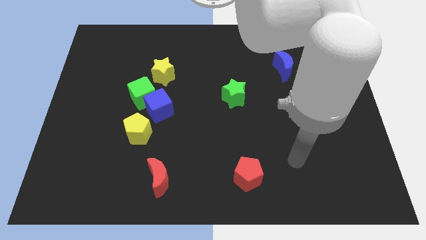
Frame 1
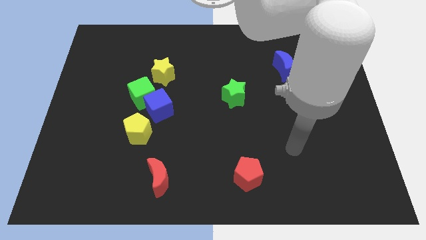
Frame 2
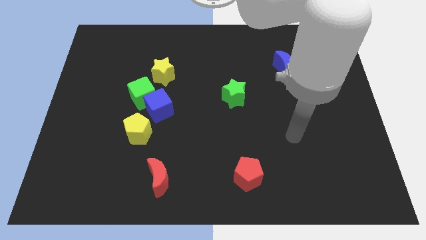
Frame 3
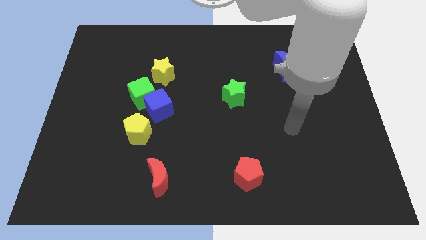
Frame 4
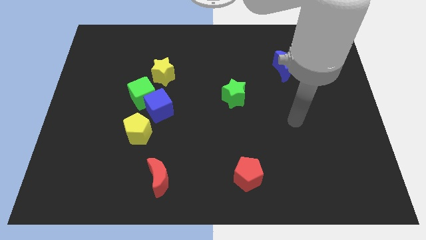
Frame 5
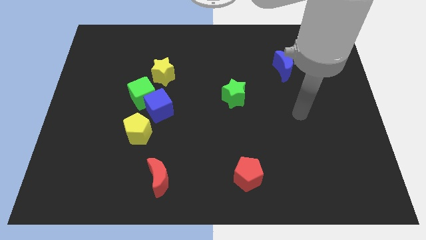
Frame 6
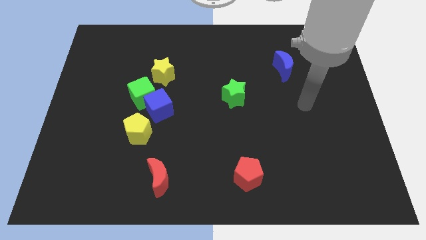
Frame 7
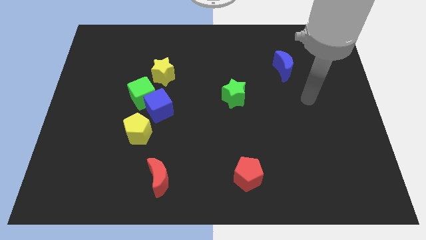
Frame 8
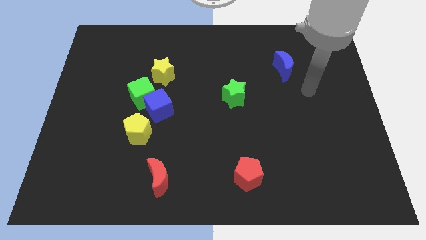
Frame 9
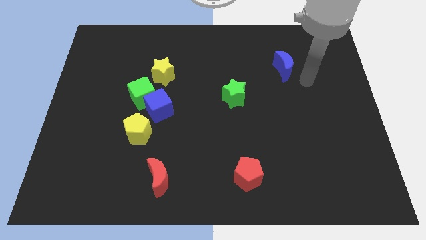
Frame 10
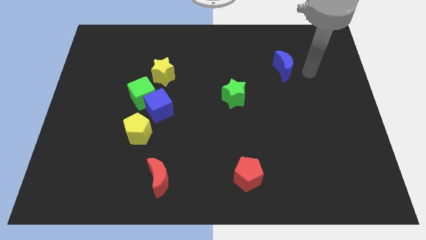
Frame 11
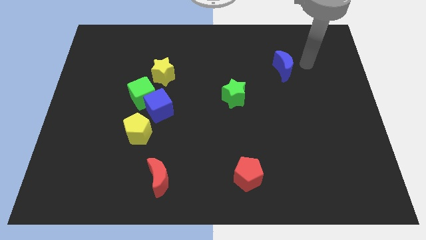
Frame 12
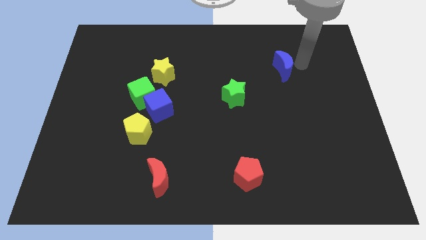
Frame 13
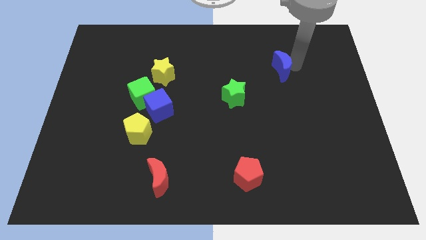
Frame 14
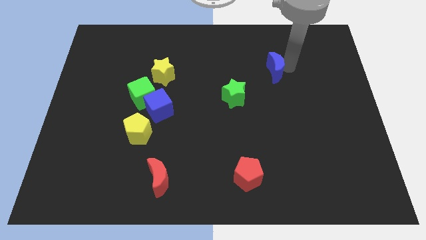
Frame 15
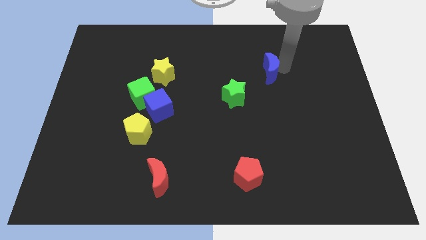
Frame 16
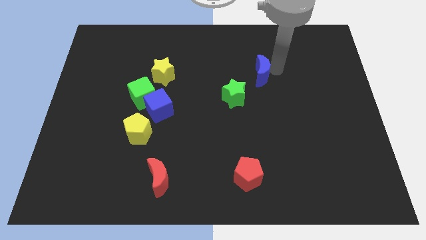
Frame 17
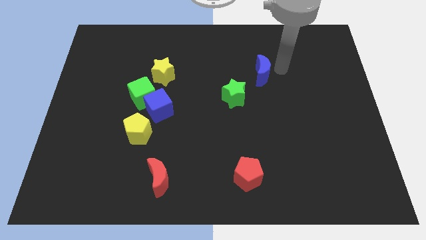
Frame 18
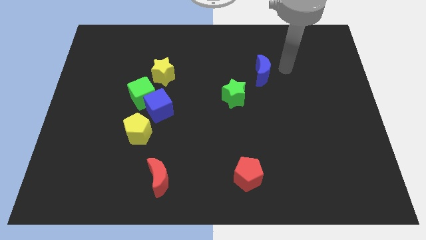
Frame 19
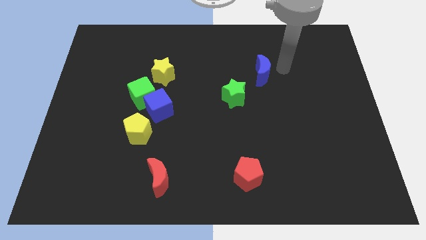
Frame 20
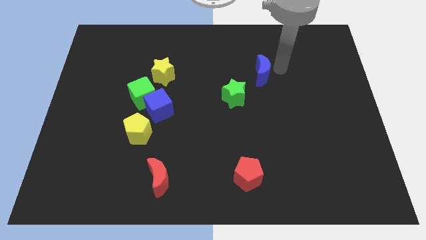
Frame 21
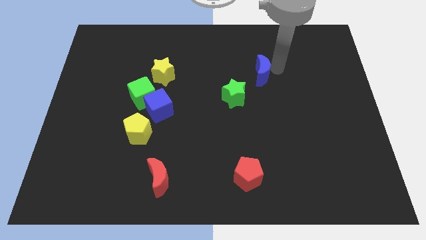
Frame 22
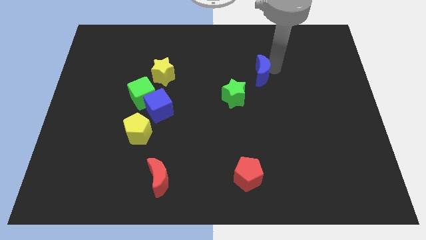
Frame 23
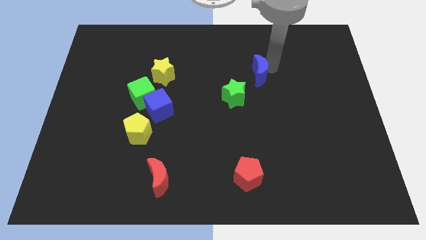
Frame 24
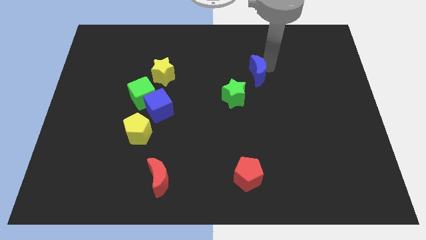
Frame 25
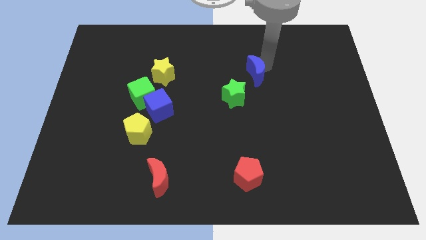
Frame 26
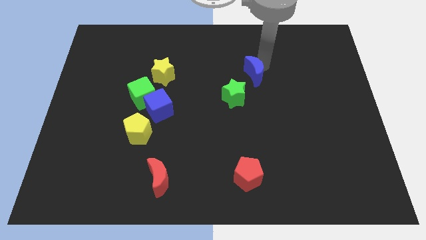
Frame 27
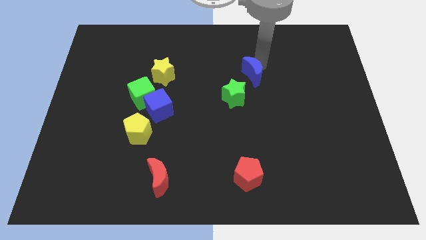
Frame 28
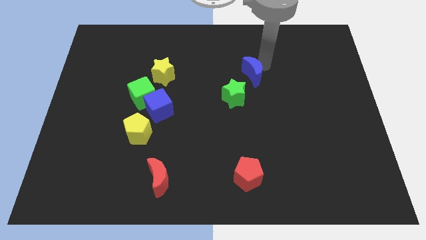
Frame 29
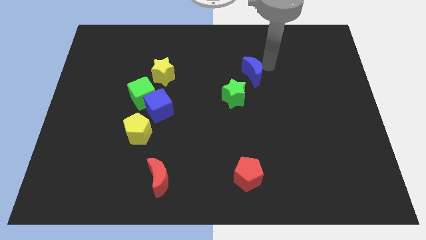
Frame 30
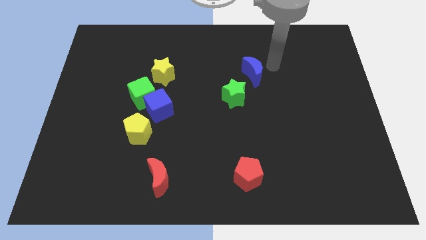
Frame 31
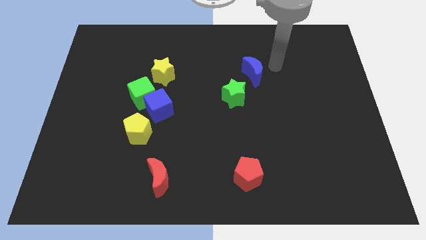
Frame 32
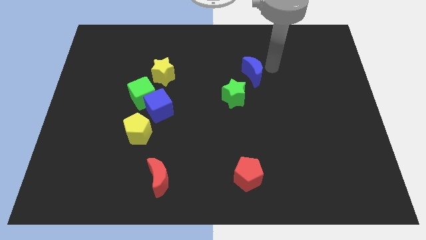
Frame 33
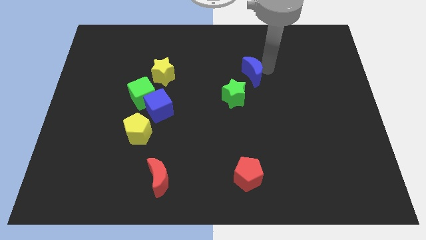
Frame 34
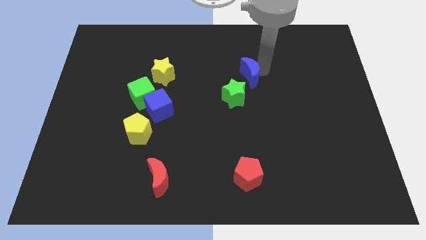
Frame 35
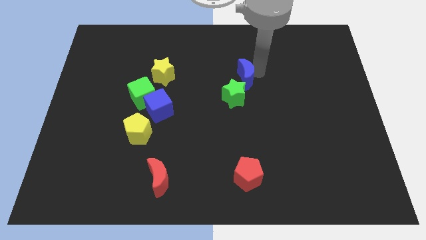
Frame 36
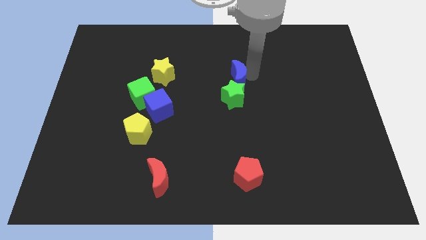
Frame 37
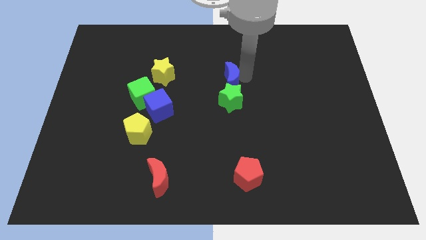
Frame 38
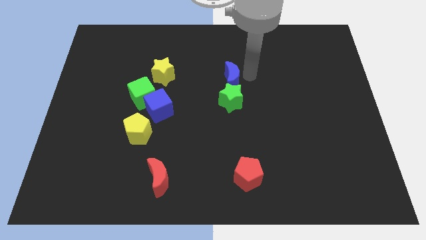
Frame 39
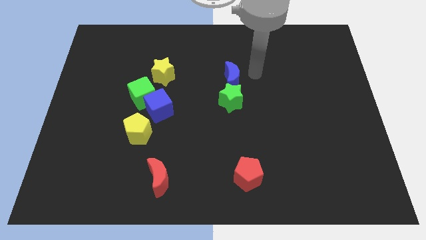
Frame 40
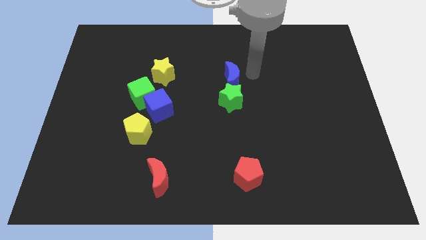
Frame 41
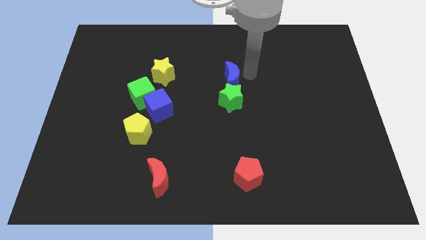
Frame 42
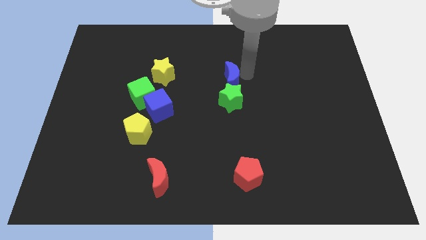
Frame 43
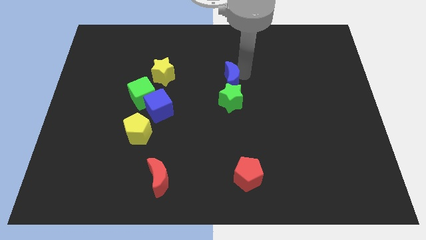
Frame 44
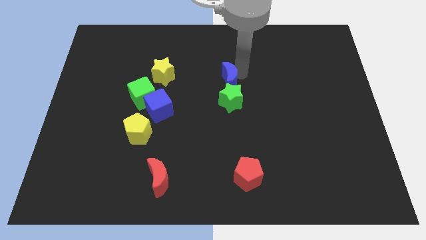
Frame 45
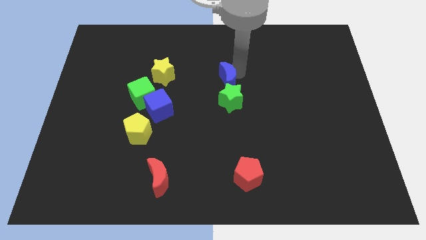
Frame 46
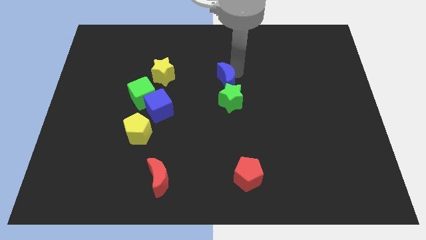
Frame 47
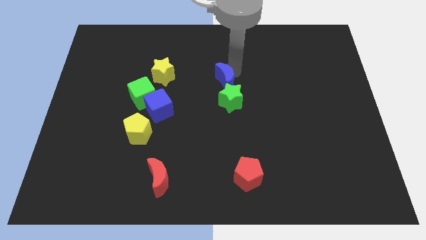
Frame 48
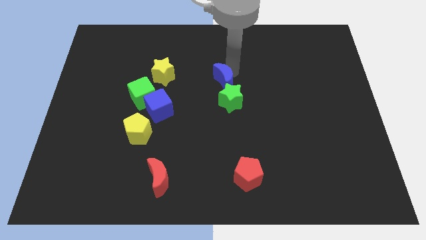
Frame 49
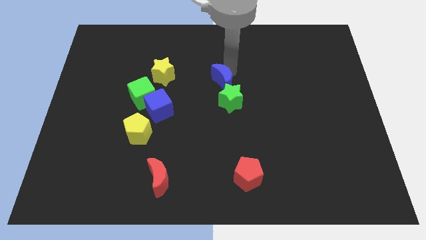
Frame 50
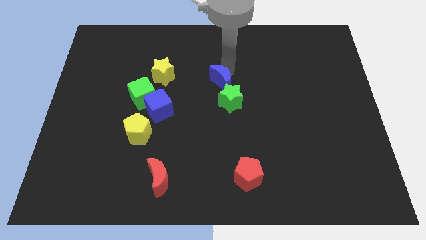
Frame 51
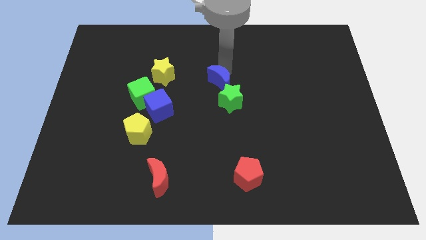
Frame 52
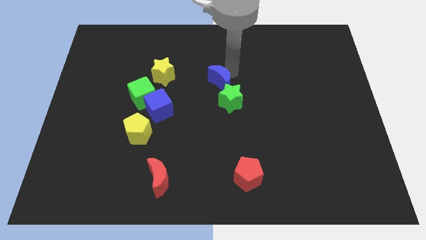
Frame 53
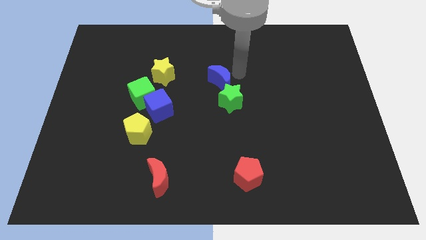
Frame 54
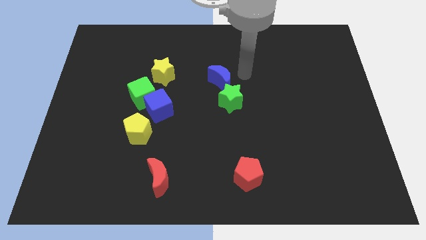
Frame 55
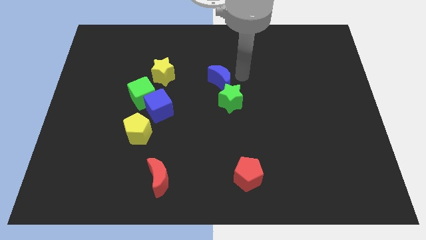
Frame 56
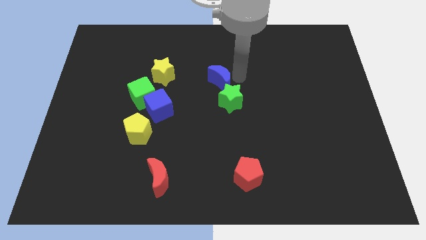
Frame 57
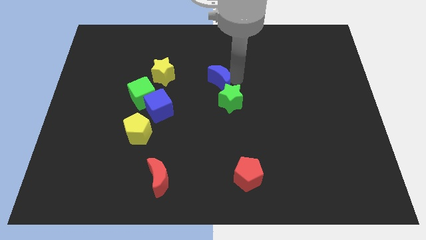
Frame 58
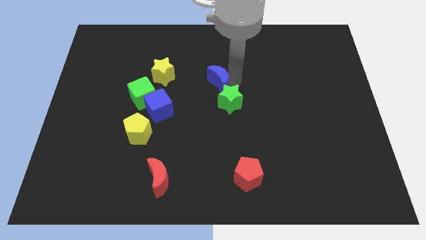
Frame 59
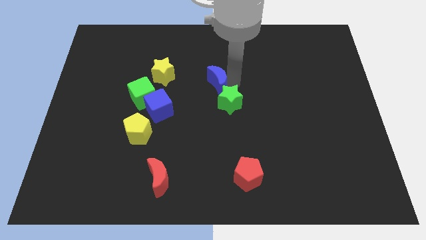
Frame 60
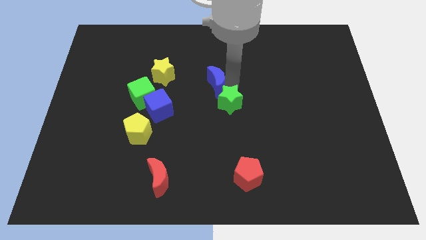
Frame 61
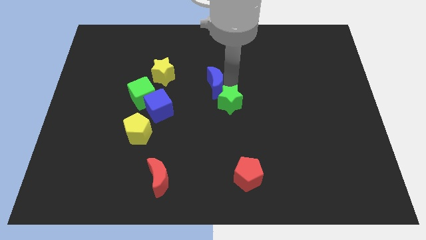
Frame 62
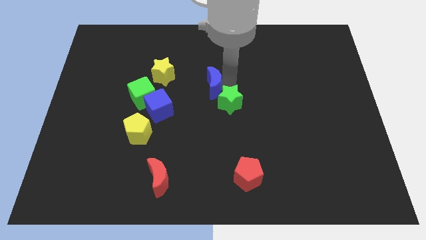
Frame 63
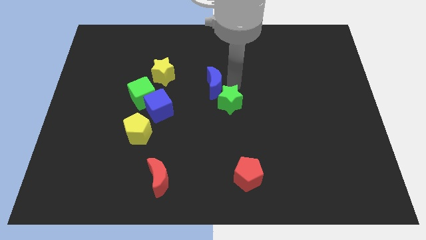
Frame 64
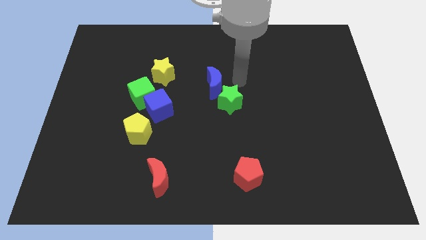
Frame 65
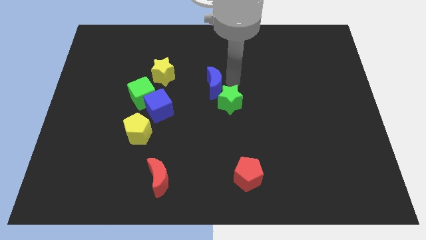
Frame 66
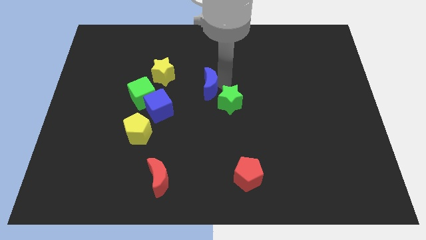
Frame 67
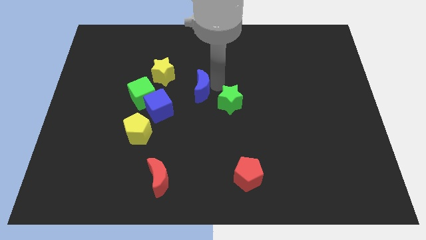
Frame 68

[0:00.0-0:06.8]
put the blue moon diagonally up and to the right of the blue cube
